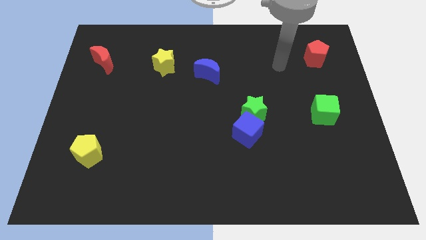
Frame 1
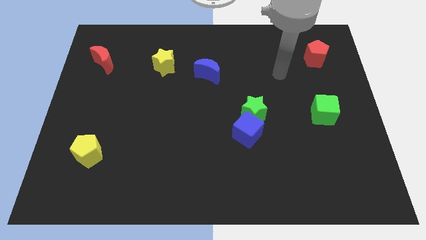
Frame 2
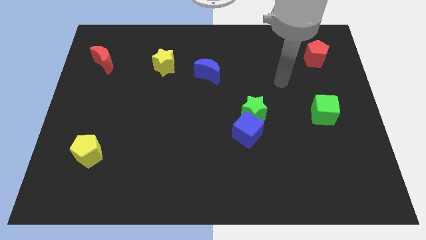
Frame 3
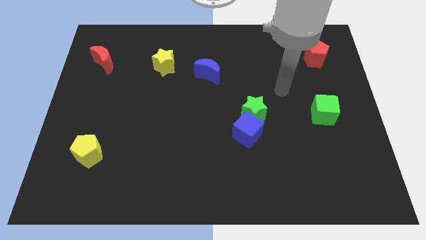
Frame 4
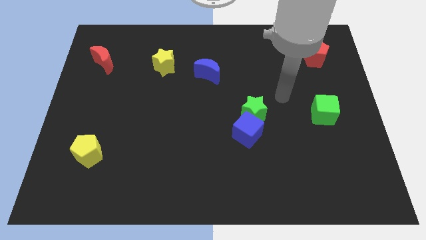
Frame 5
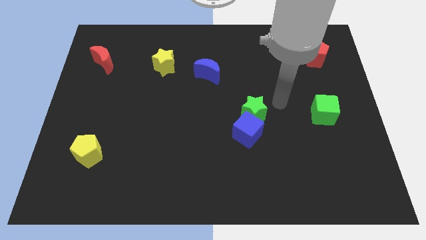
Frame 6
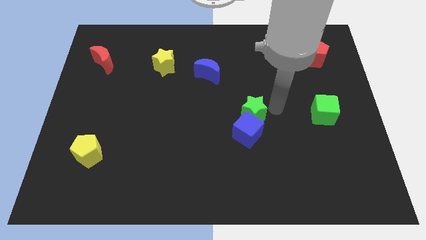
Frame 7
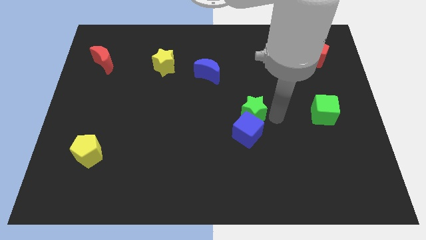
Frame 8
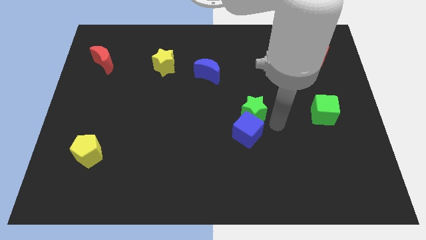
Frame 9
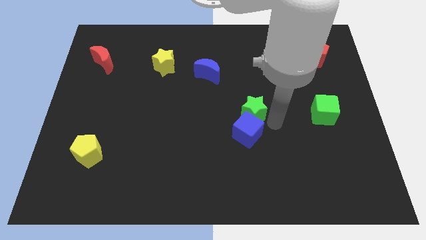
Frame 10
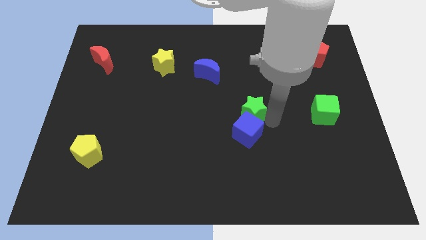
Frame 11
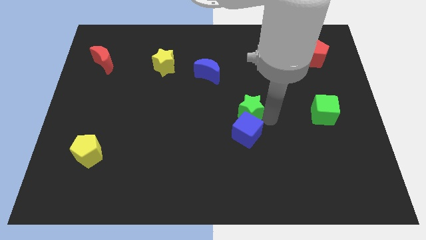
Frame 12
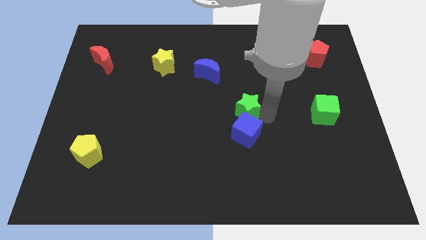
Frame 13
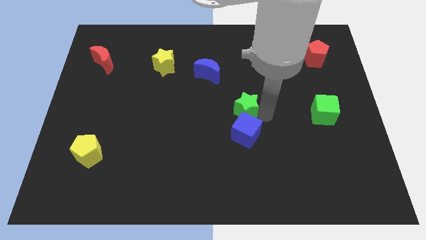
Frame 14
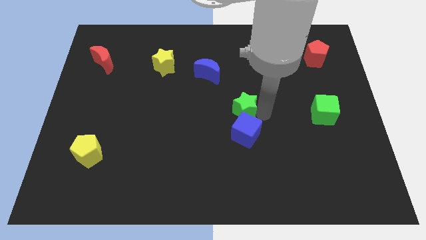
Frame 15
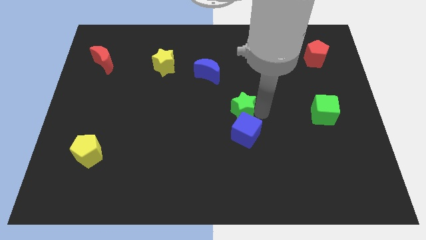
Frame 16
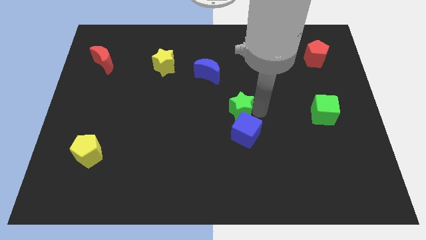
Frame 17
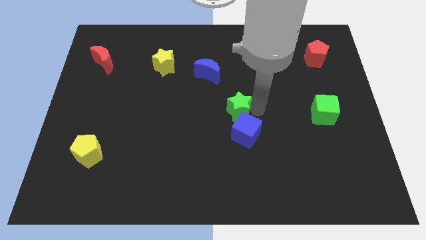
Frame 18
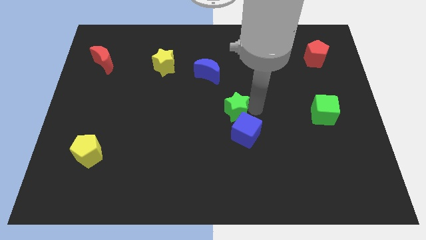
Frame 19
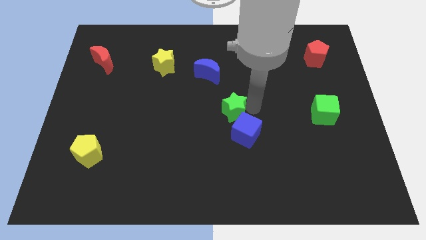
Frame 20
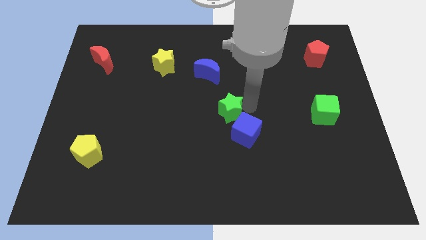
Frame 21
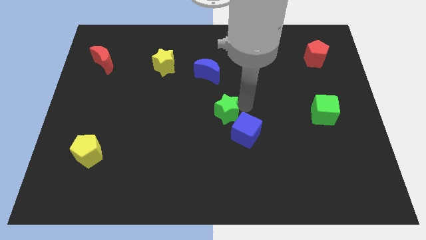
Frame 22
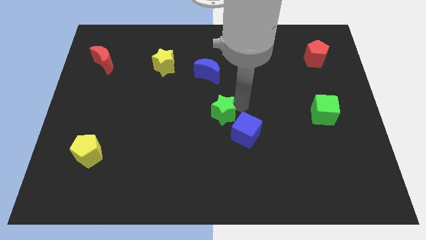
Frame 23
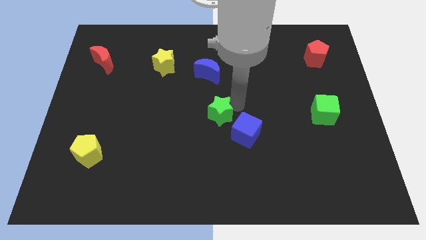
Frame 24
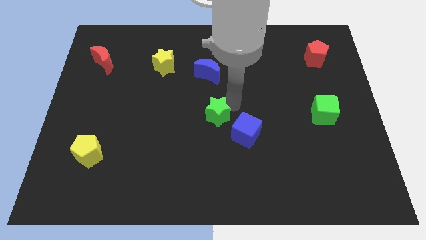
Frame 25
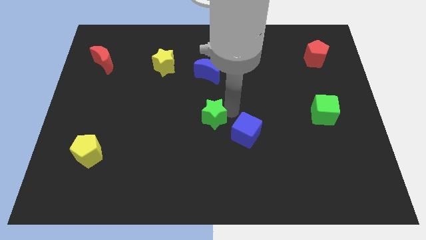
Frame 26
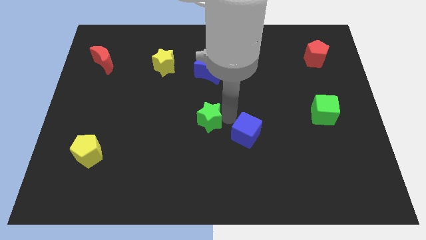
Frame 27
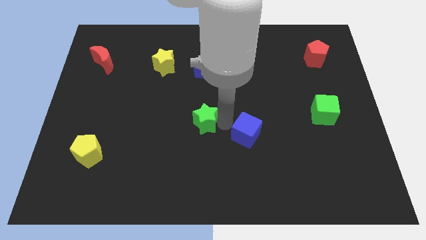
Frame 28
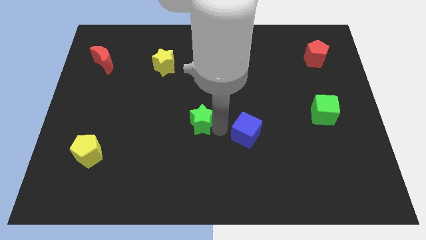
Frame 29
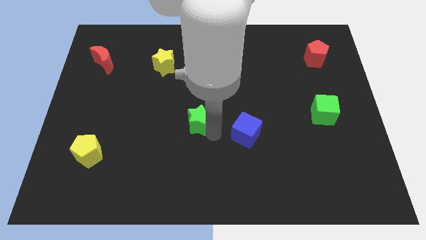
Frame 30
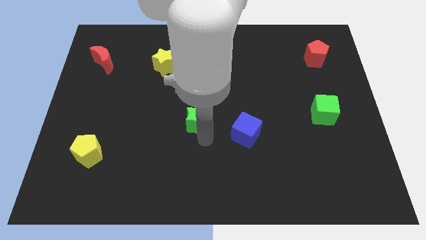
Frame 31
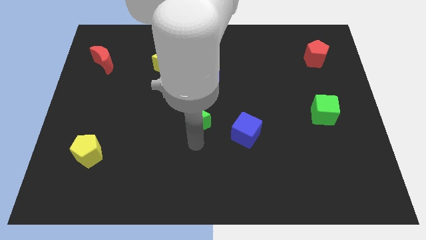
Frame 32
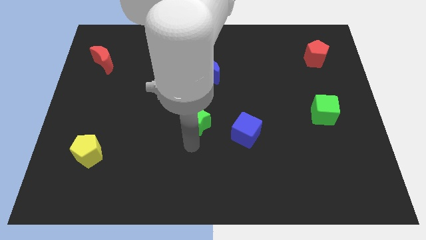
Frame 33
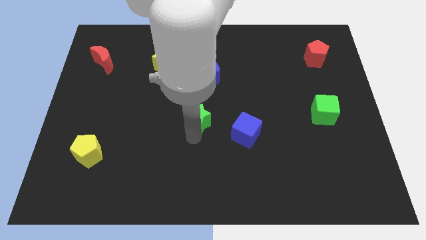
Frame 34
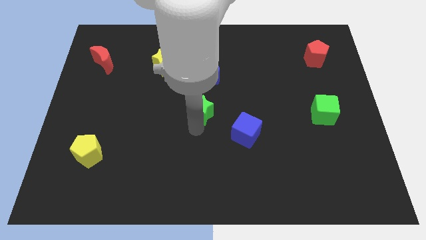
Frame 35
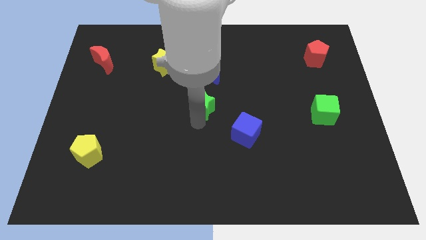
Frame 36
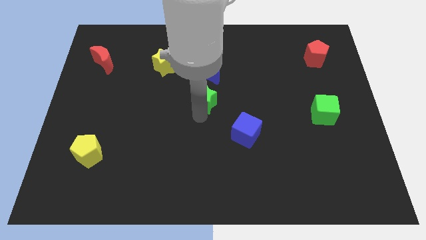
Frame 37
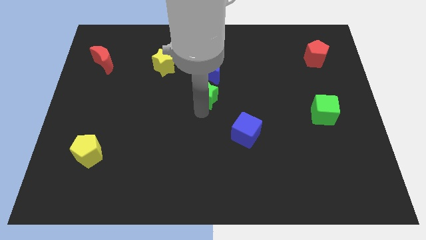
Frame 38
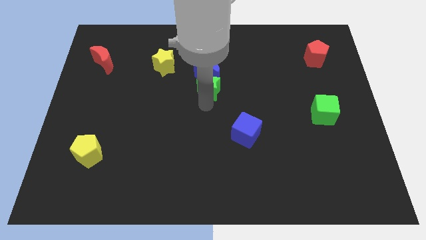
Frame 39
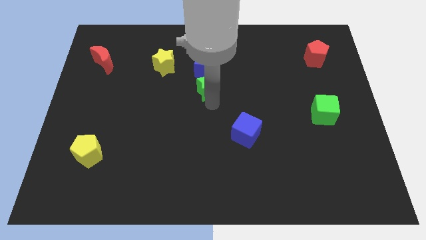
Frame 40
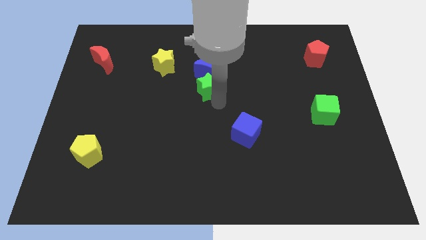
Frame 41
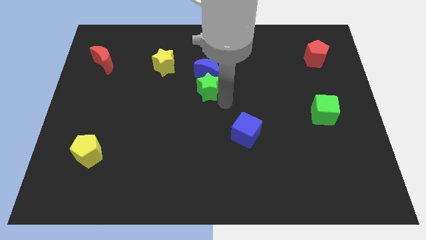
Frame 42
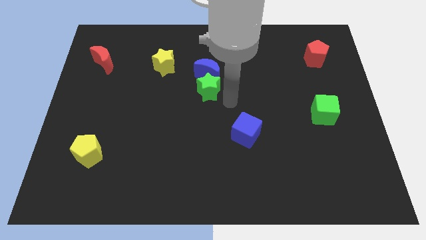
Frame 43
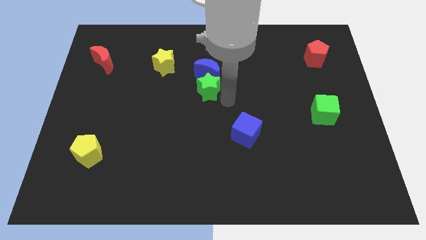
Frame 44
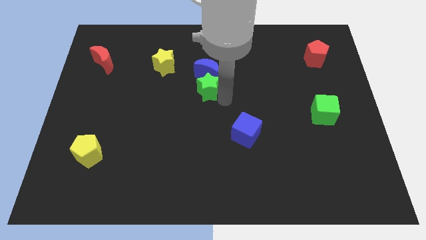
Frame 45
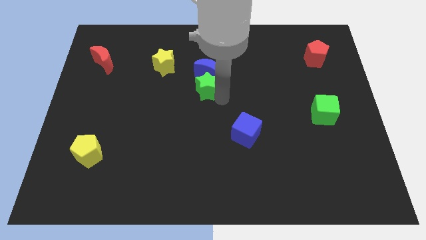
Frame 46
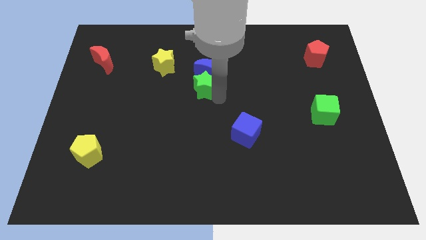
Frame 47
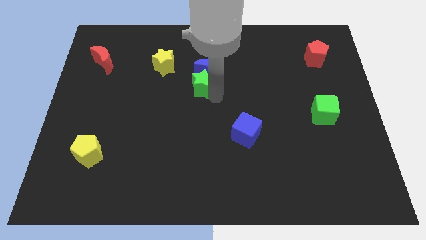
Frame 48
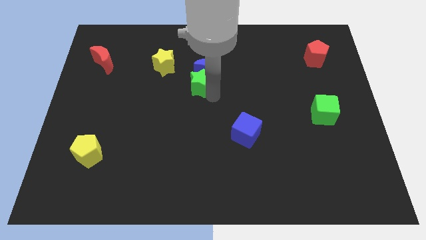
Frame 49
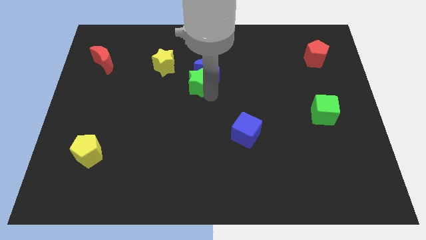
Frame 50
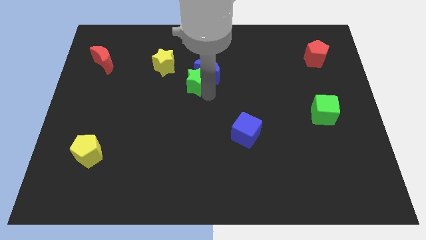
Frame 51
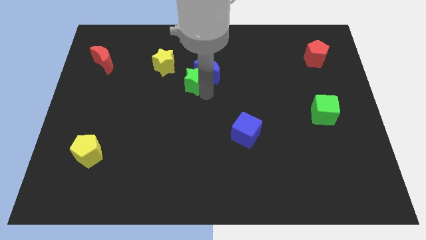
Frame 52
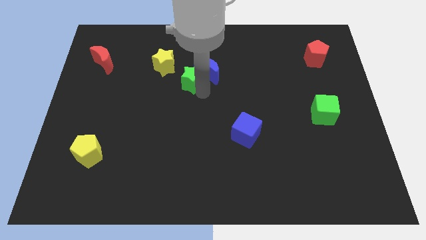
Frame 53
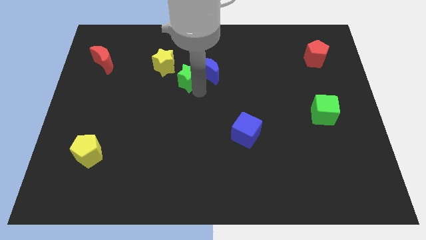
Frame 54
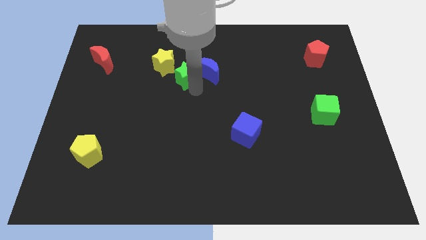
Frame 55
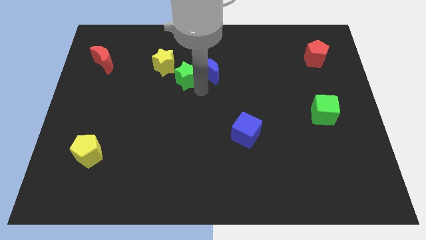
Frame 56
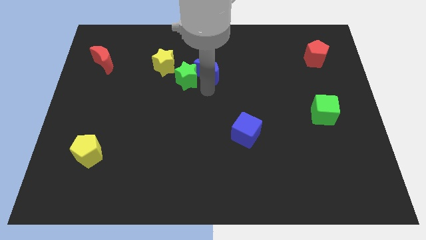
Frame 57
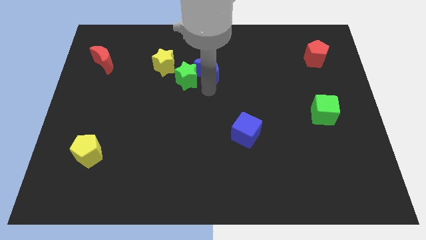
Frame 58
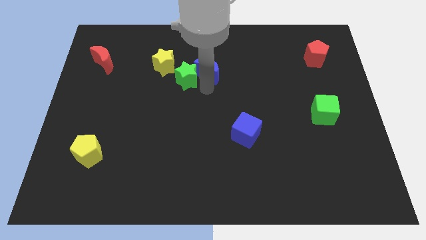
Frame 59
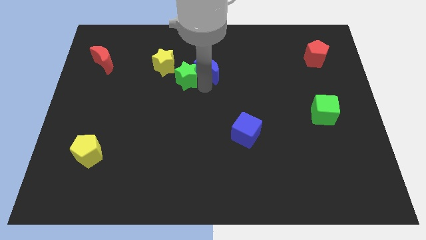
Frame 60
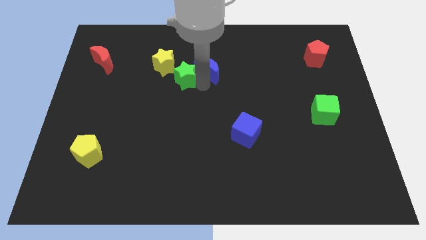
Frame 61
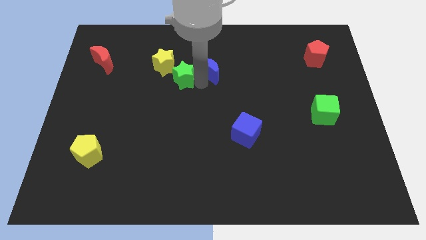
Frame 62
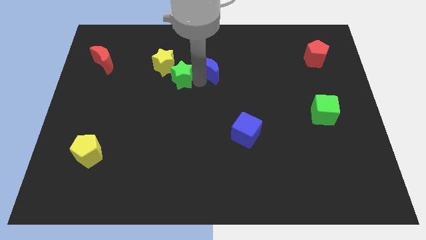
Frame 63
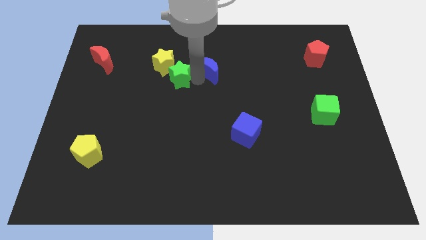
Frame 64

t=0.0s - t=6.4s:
put the green star next to the yellow star
